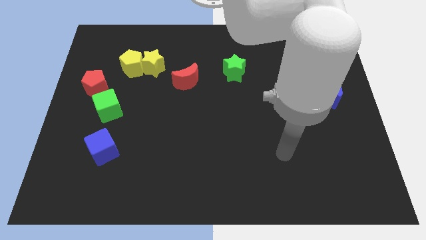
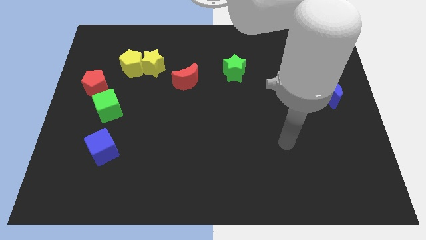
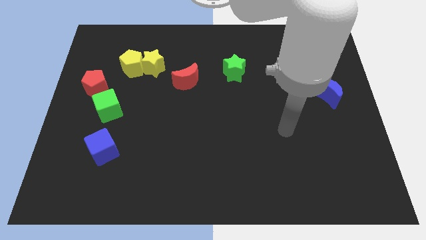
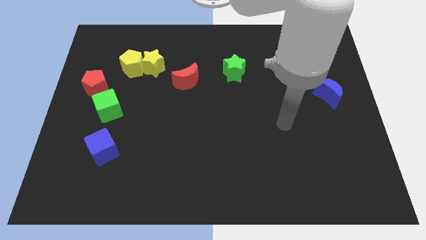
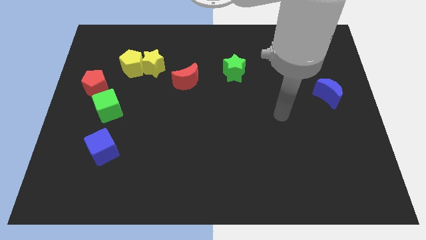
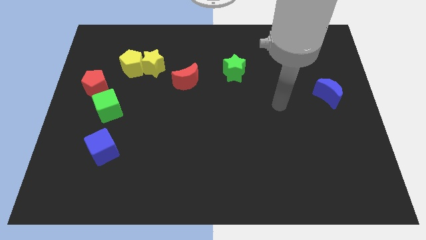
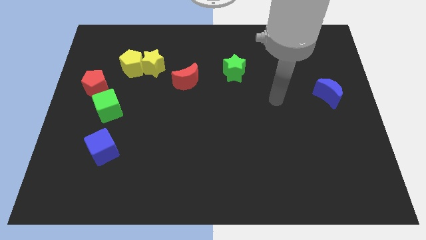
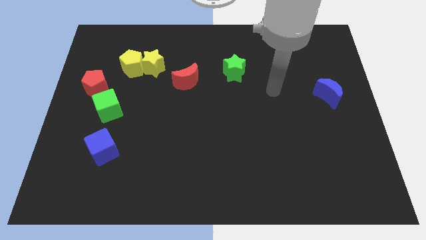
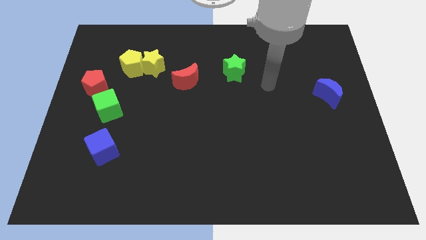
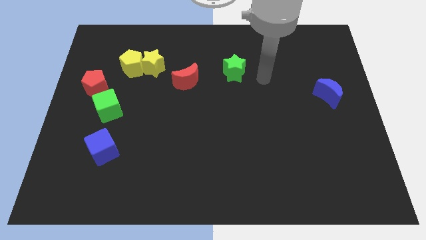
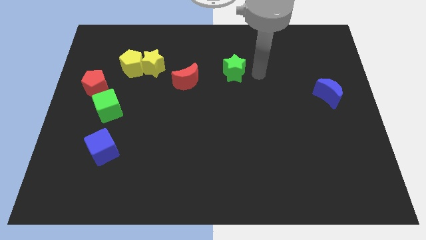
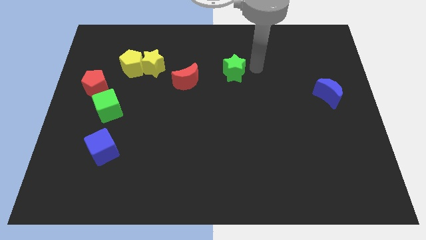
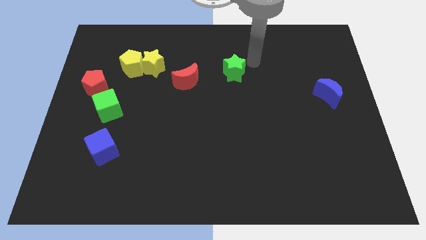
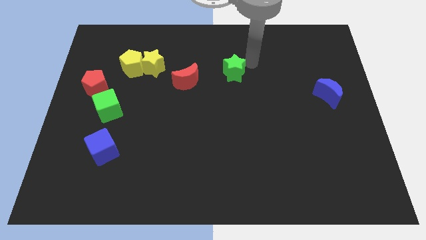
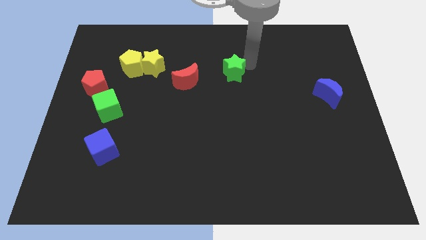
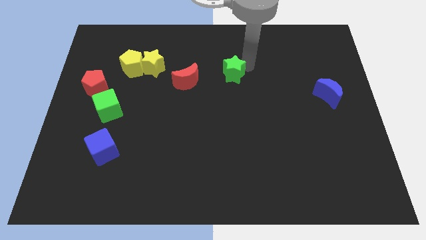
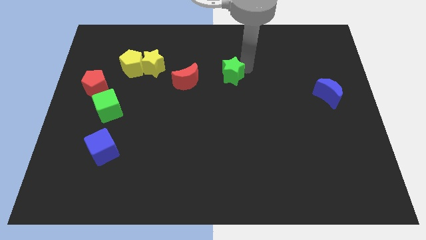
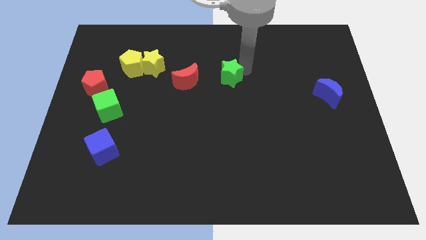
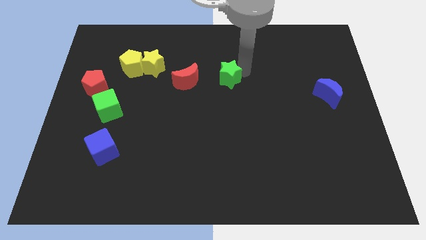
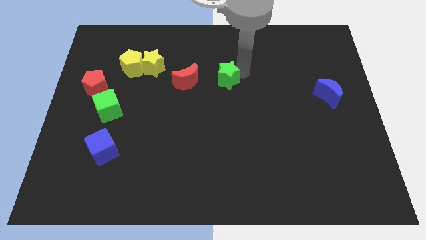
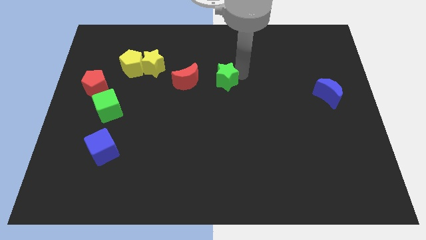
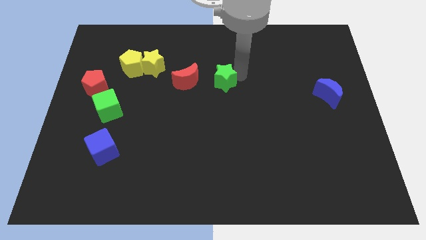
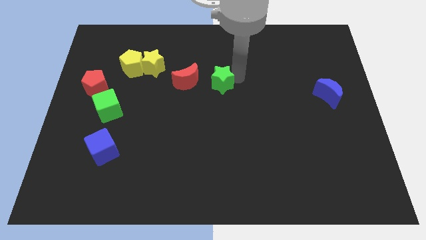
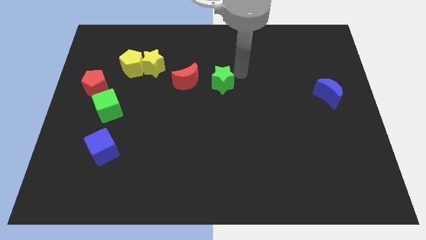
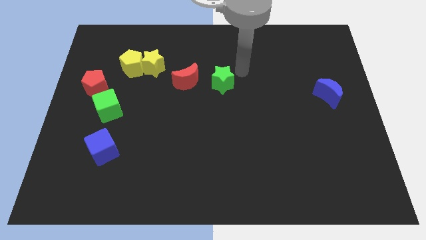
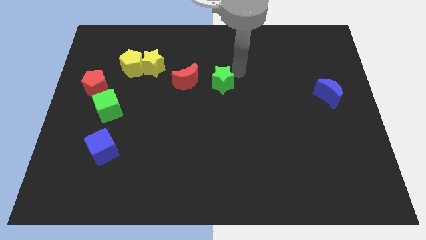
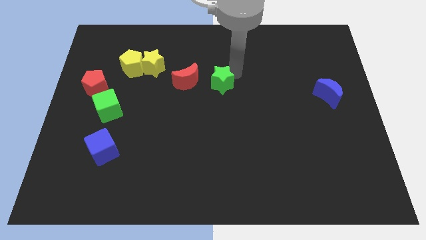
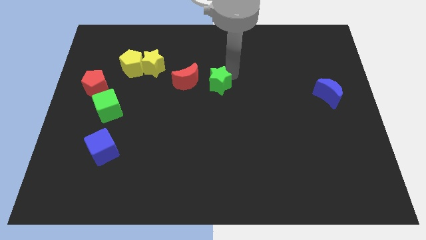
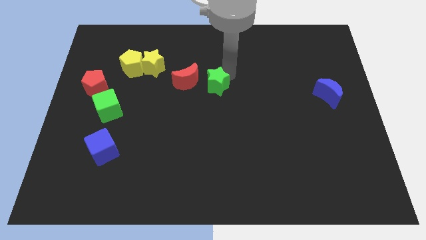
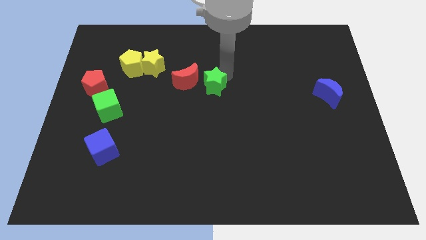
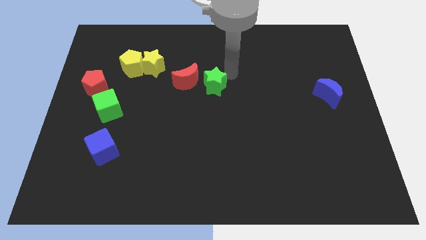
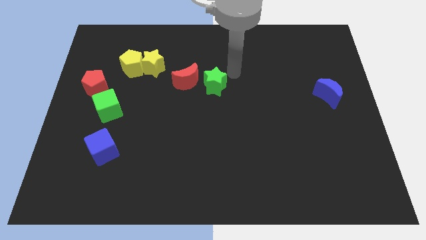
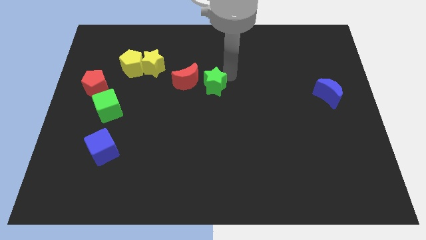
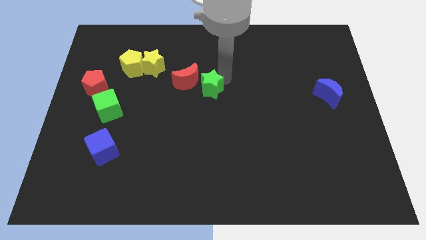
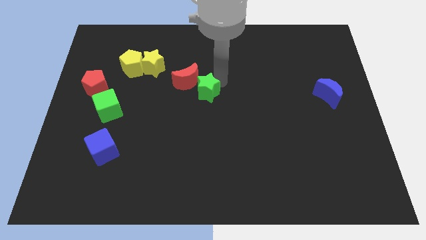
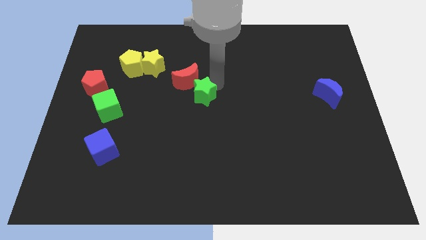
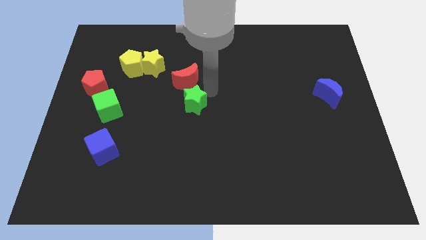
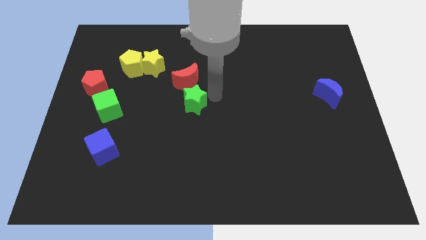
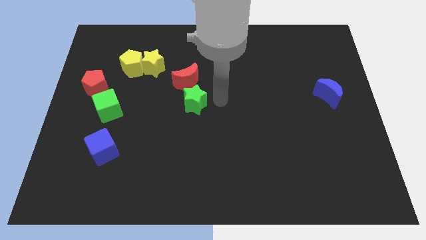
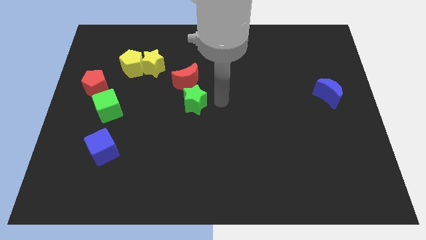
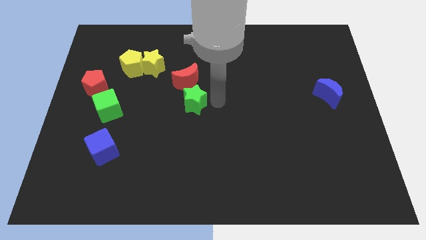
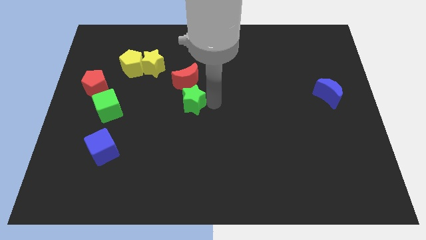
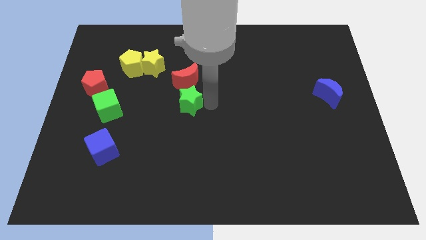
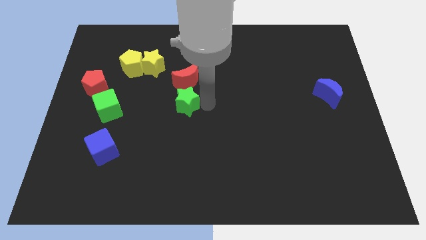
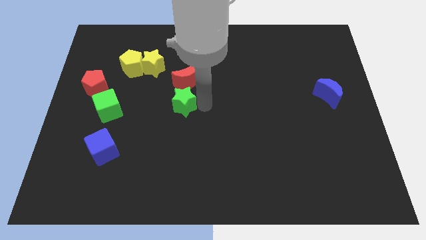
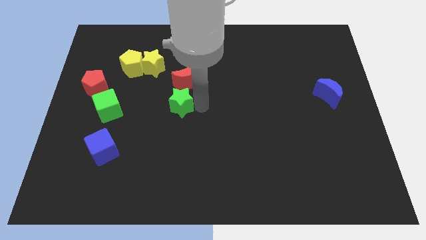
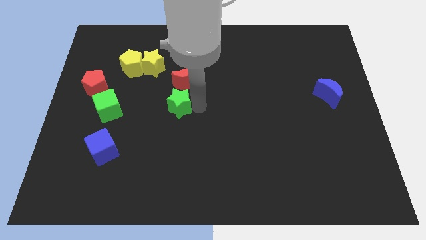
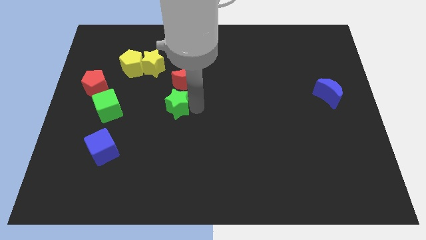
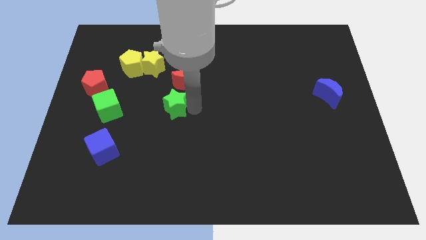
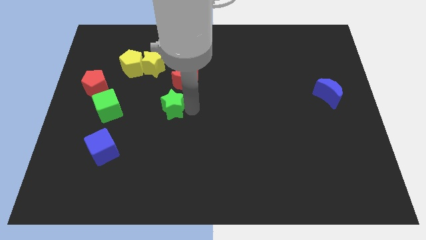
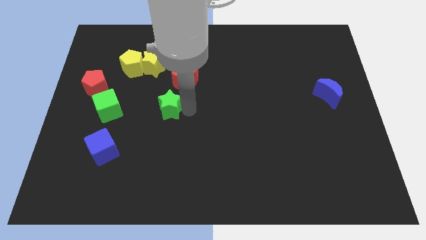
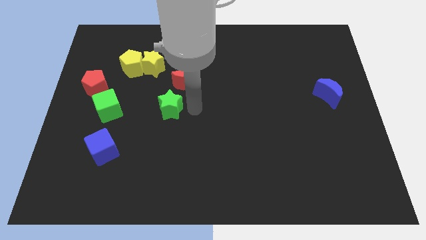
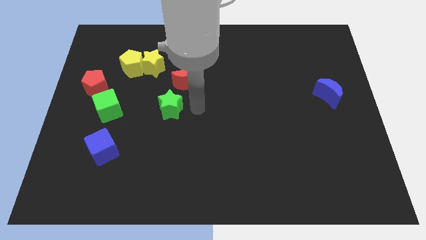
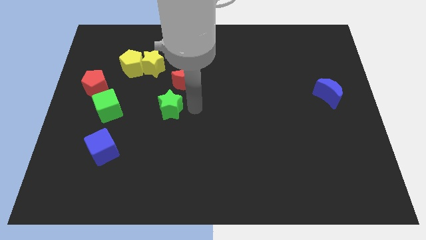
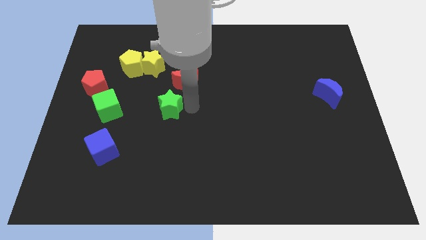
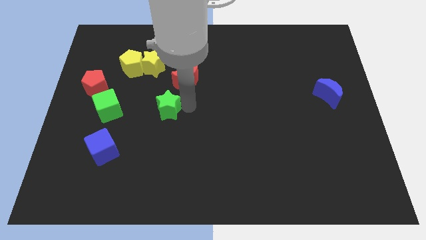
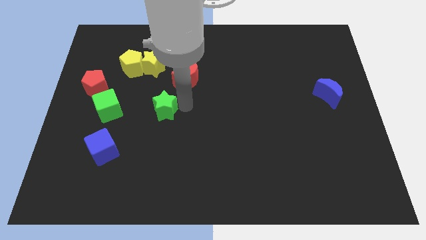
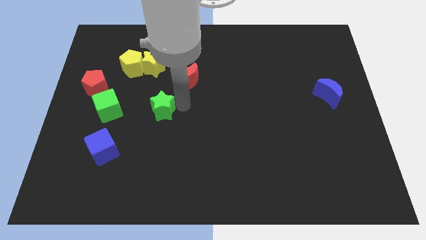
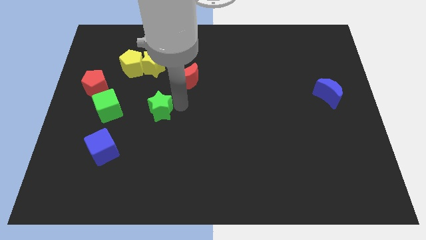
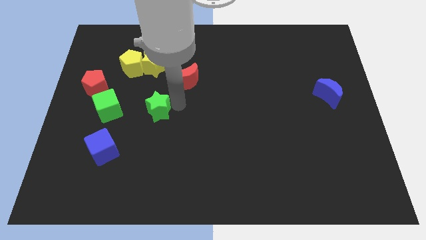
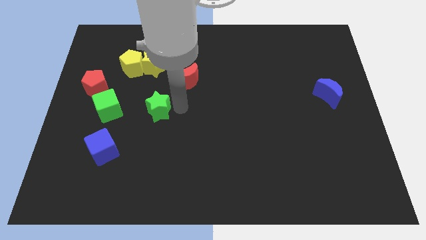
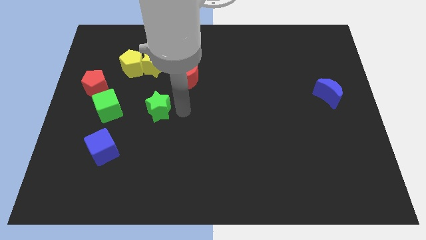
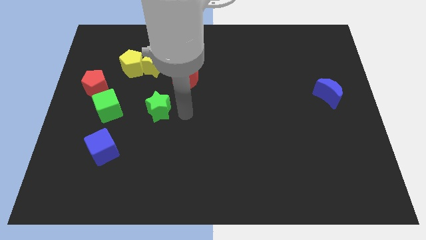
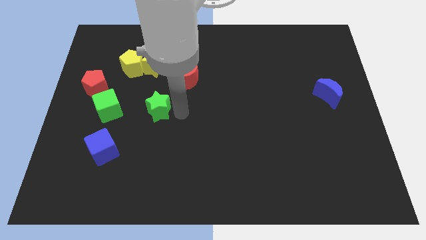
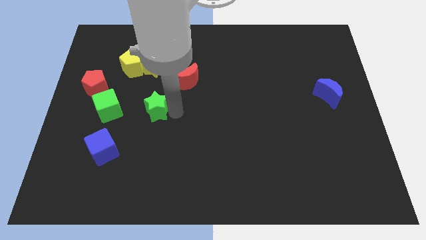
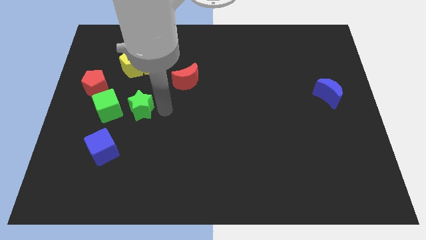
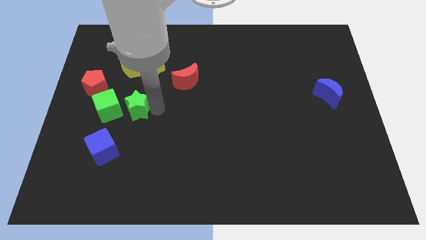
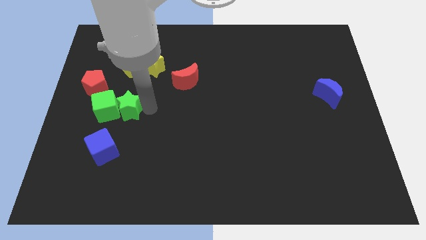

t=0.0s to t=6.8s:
push the green star towards the green cube

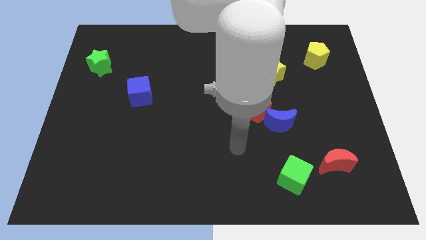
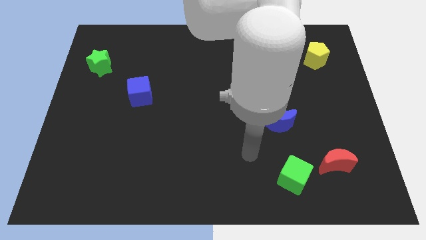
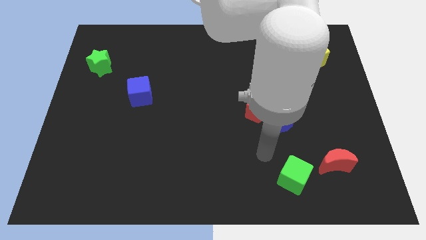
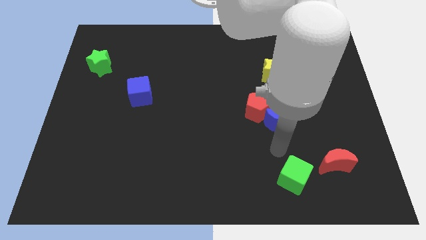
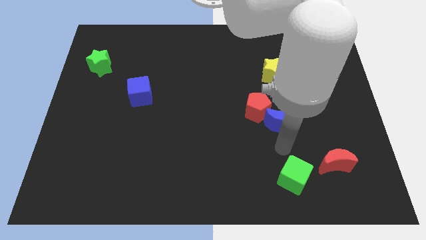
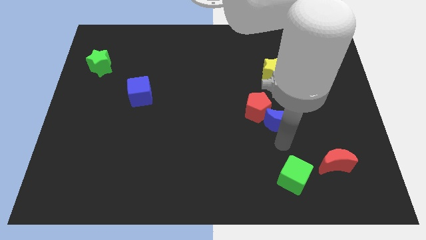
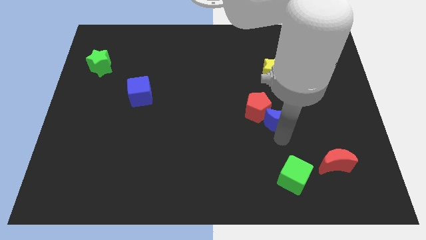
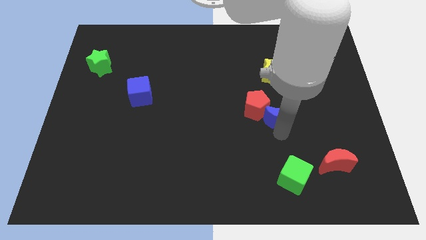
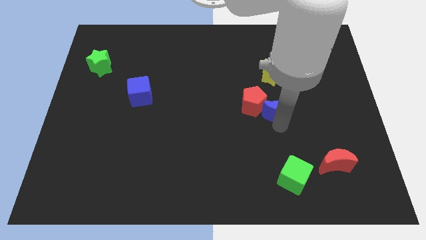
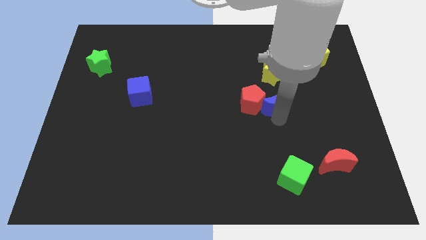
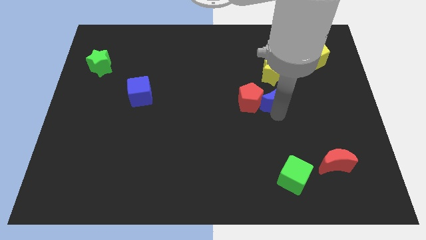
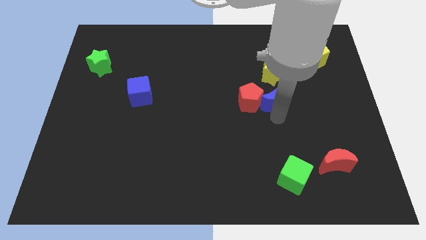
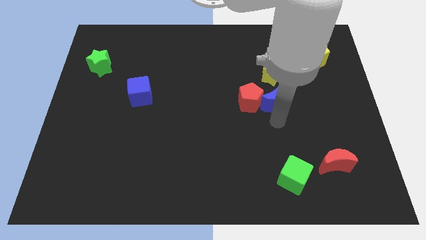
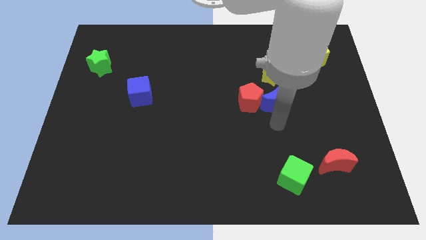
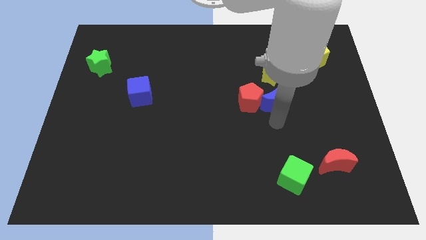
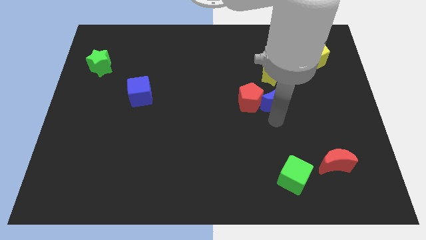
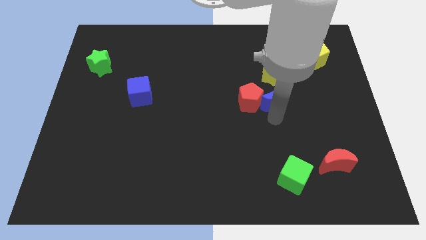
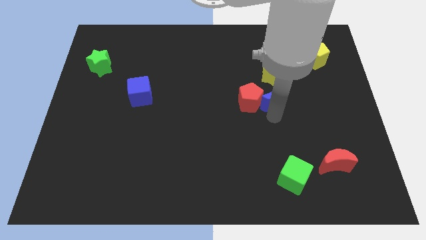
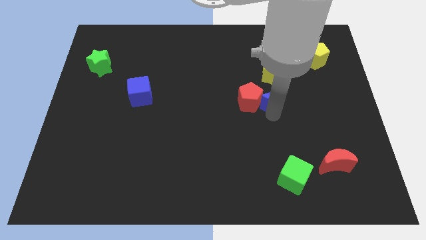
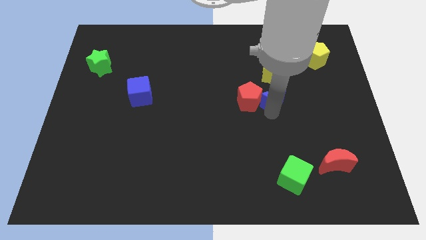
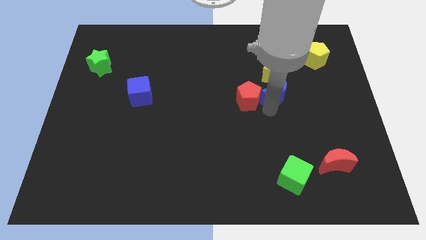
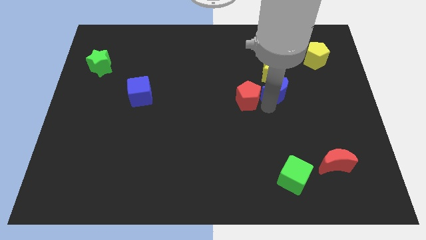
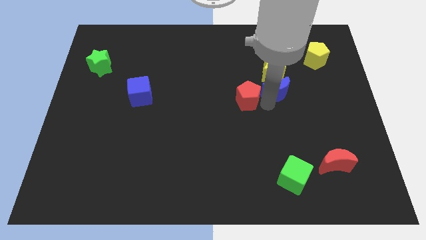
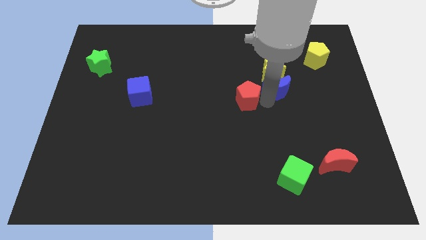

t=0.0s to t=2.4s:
move the blue moon close to the yellow star
